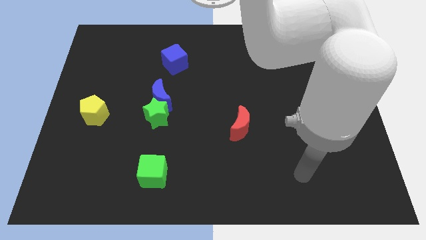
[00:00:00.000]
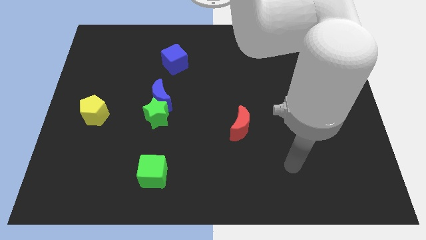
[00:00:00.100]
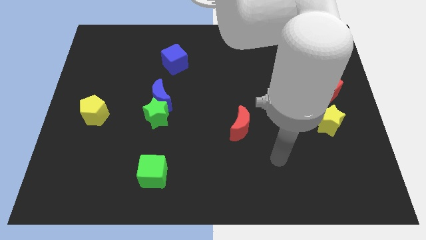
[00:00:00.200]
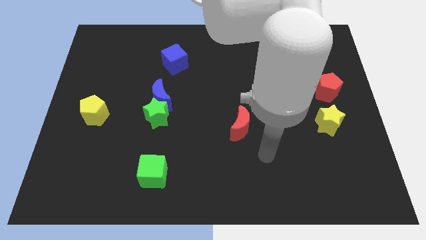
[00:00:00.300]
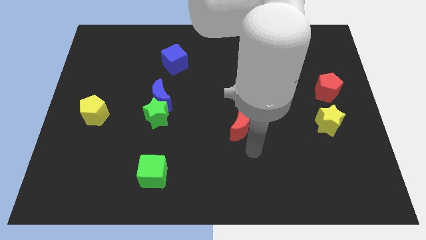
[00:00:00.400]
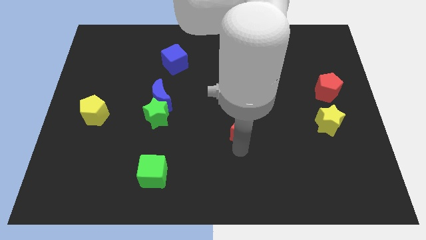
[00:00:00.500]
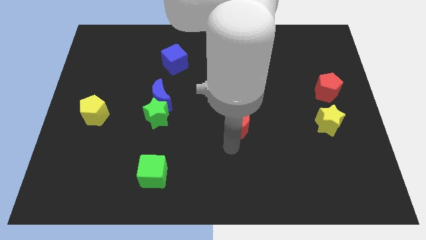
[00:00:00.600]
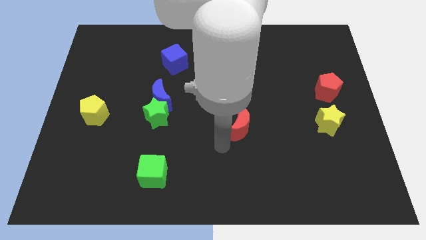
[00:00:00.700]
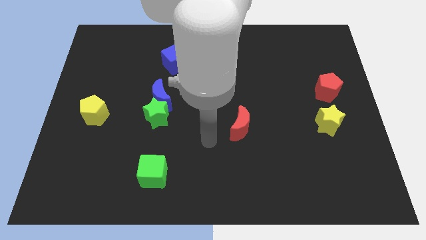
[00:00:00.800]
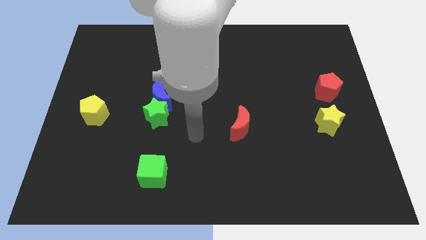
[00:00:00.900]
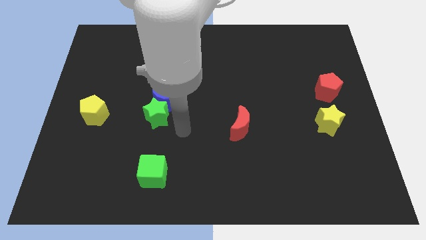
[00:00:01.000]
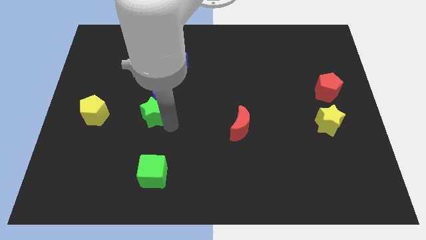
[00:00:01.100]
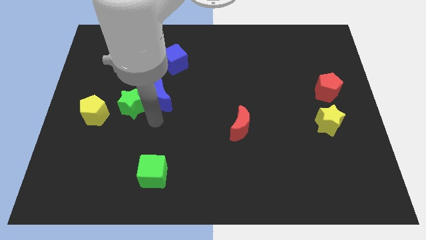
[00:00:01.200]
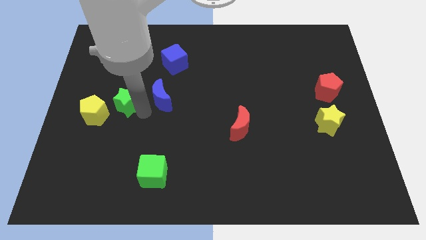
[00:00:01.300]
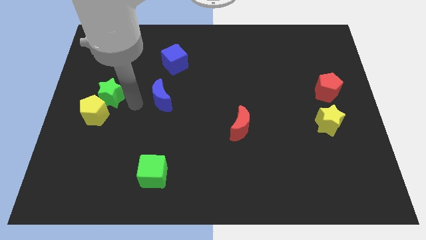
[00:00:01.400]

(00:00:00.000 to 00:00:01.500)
pull the blue moon apart from the green star

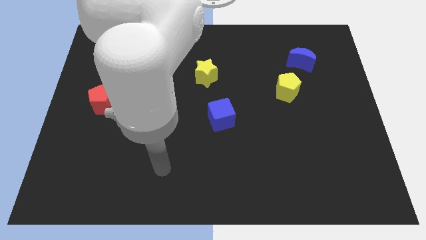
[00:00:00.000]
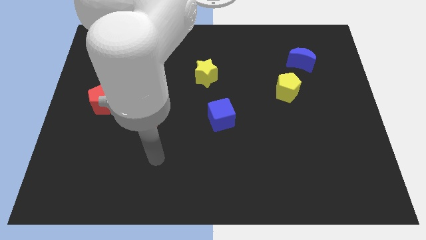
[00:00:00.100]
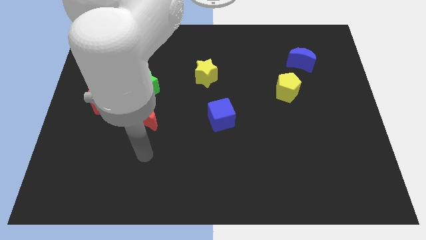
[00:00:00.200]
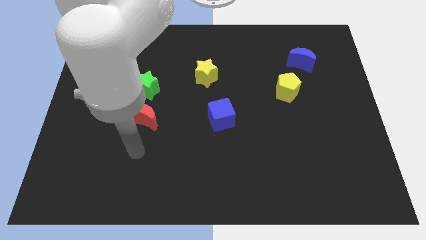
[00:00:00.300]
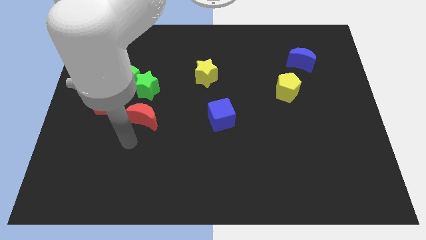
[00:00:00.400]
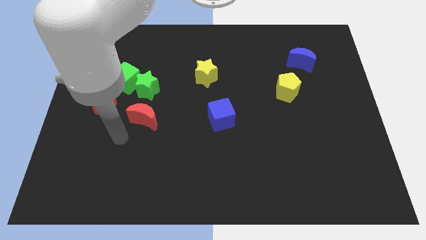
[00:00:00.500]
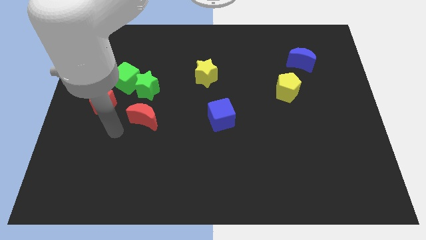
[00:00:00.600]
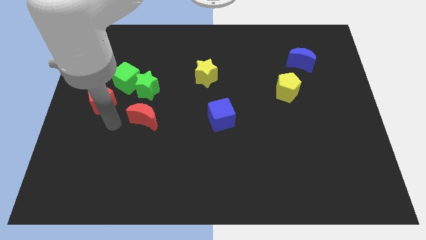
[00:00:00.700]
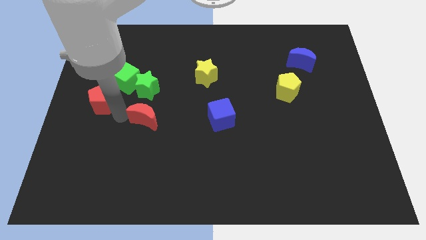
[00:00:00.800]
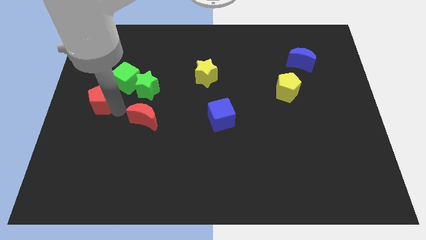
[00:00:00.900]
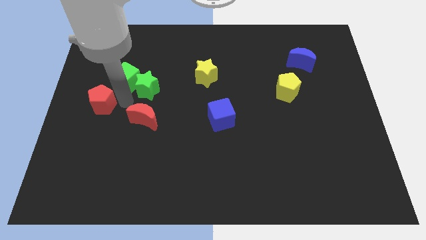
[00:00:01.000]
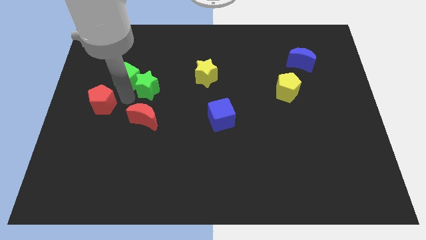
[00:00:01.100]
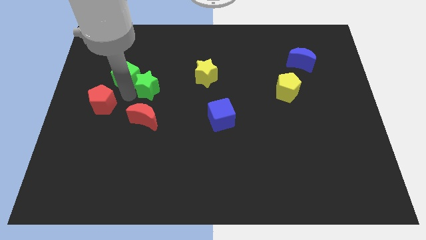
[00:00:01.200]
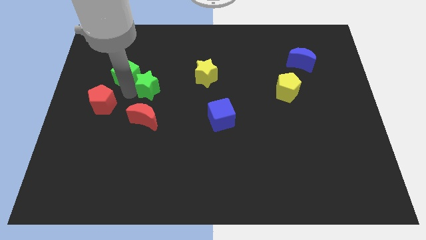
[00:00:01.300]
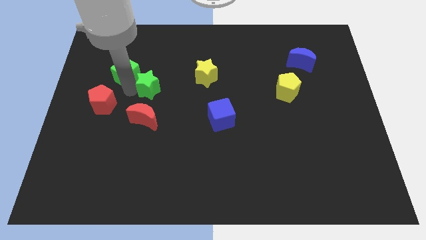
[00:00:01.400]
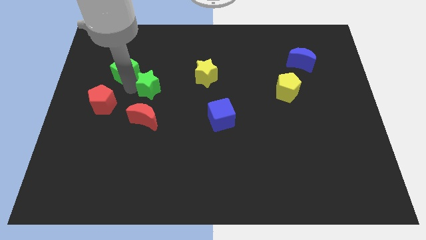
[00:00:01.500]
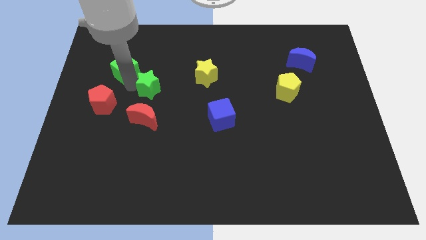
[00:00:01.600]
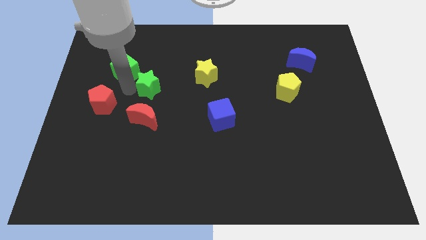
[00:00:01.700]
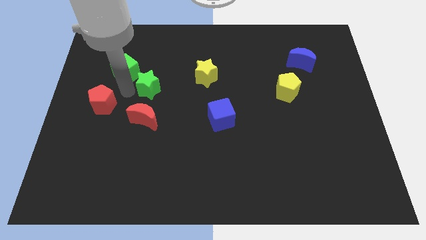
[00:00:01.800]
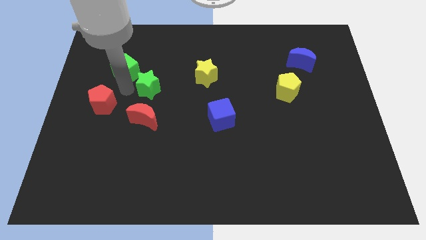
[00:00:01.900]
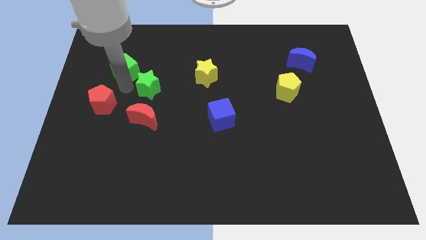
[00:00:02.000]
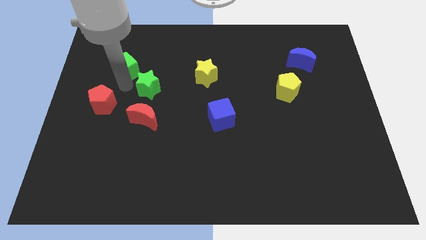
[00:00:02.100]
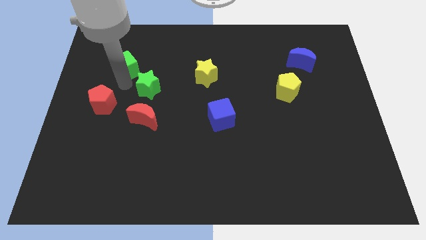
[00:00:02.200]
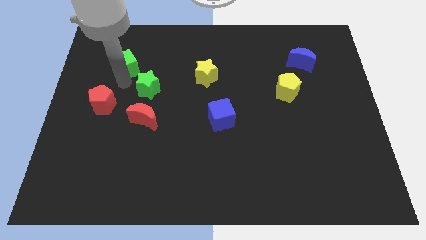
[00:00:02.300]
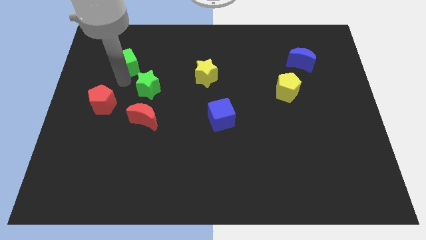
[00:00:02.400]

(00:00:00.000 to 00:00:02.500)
separate the green cube from the green star and red pentagon

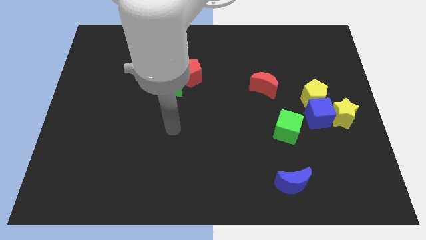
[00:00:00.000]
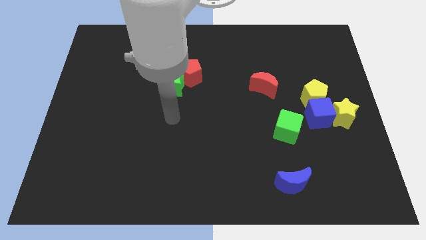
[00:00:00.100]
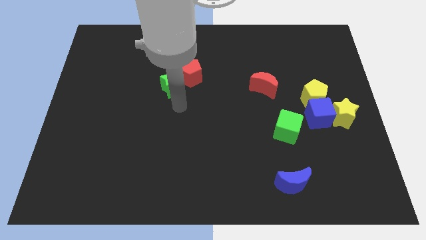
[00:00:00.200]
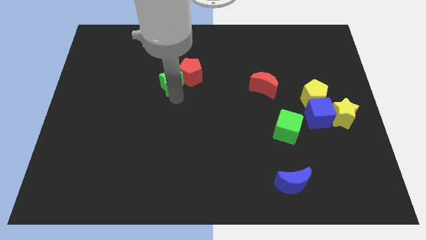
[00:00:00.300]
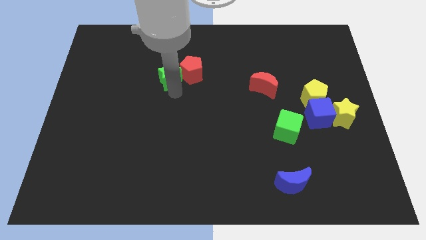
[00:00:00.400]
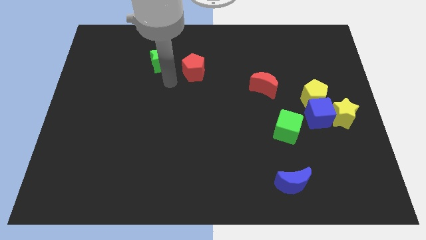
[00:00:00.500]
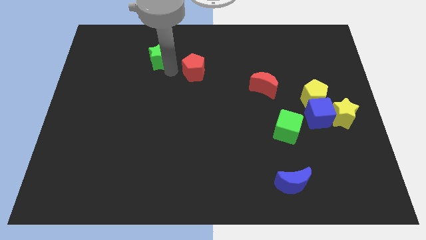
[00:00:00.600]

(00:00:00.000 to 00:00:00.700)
separate the red pentagon from the green star

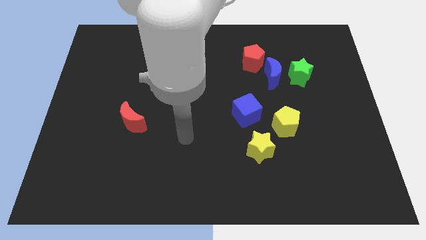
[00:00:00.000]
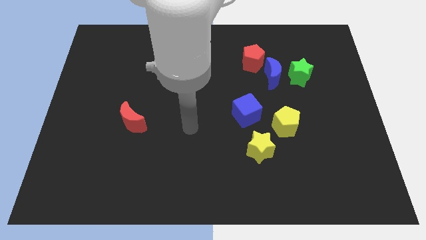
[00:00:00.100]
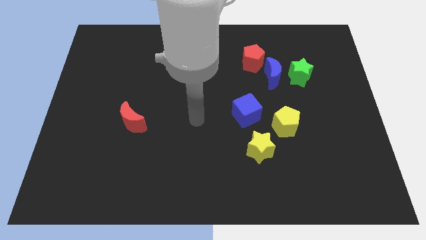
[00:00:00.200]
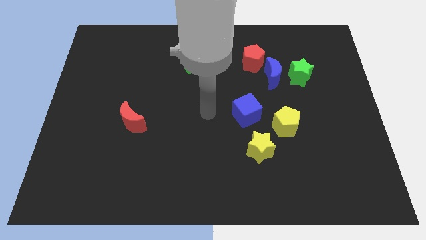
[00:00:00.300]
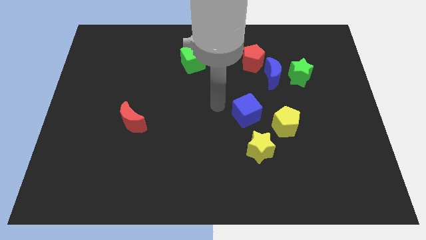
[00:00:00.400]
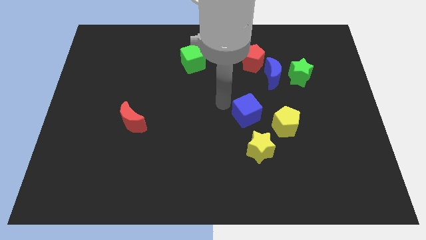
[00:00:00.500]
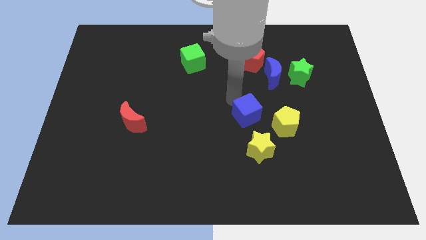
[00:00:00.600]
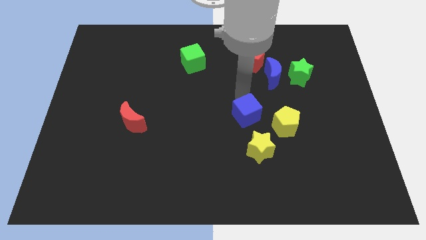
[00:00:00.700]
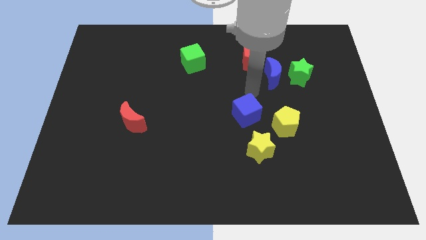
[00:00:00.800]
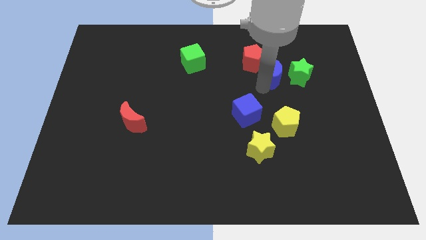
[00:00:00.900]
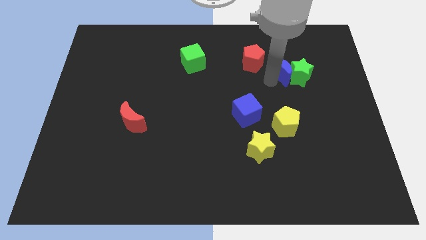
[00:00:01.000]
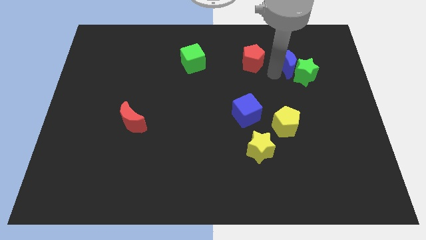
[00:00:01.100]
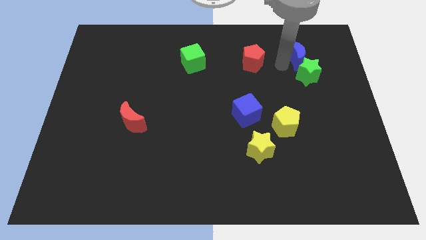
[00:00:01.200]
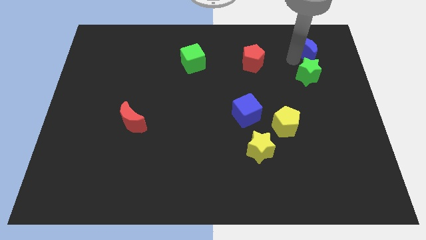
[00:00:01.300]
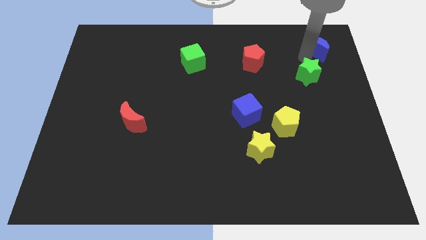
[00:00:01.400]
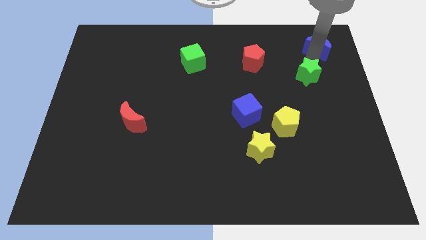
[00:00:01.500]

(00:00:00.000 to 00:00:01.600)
separate the green star from the blue moon

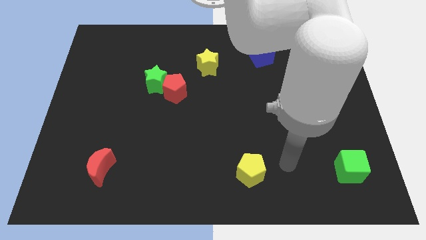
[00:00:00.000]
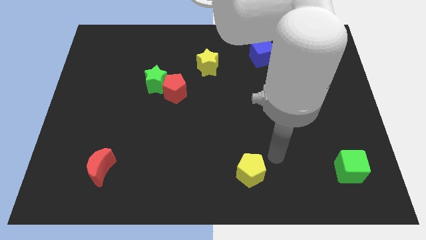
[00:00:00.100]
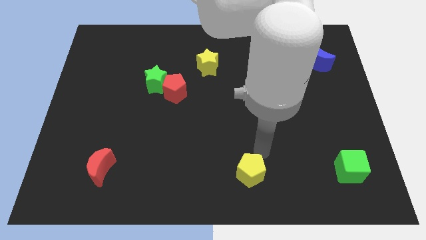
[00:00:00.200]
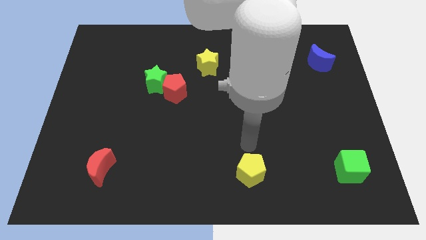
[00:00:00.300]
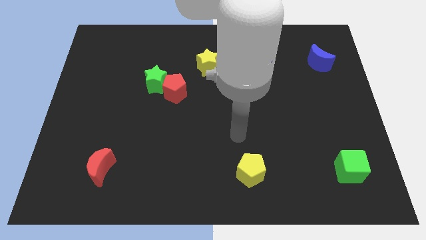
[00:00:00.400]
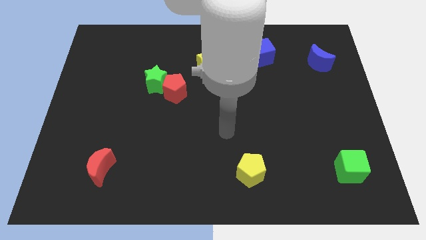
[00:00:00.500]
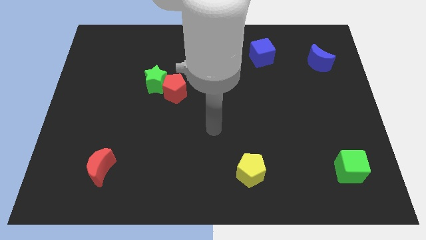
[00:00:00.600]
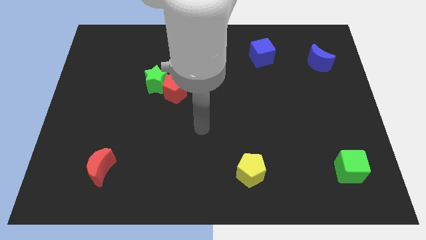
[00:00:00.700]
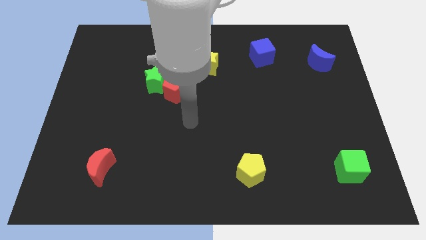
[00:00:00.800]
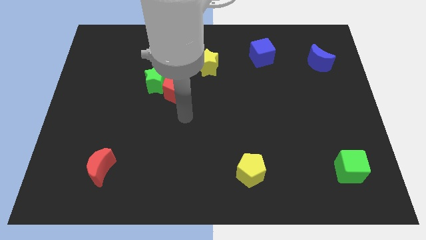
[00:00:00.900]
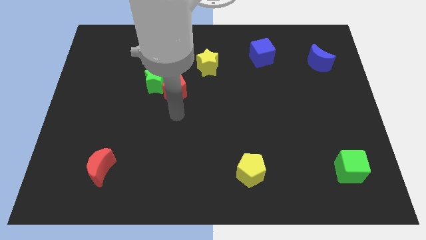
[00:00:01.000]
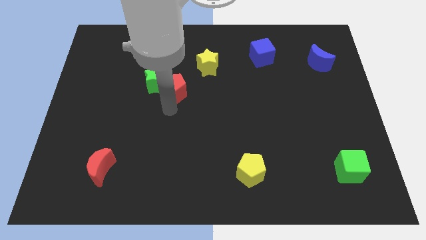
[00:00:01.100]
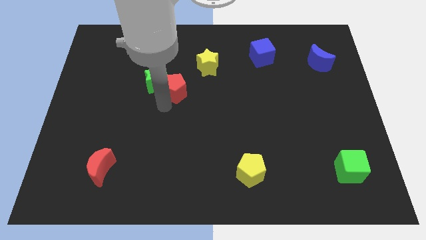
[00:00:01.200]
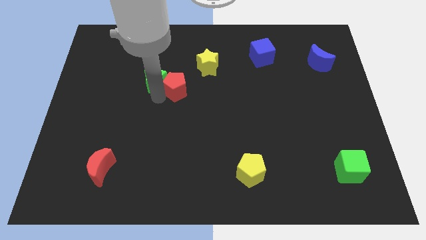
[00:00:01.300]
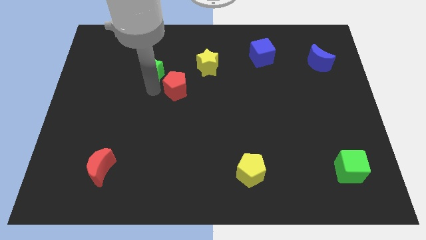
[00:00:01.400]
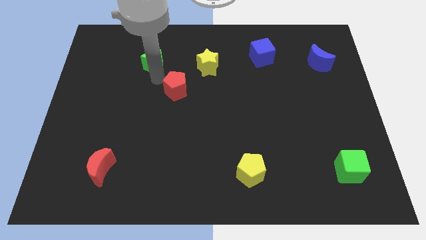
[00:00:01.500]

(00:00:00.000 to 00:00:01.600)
pull the red pentagon apart from the green star

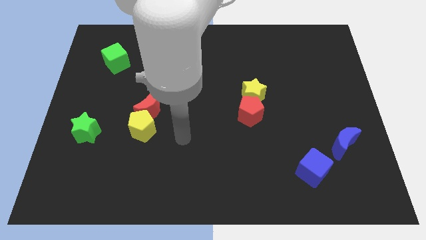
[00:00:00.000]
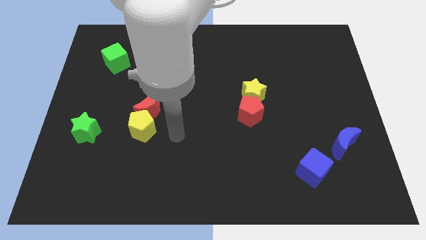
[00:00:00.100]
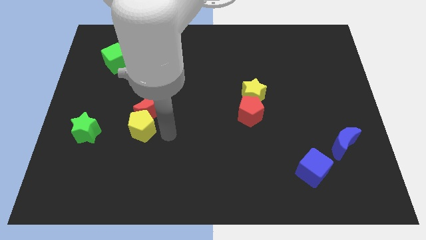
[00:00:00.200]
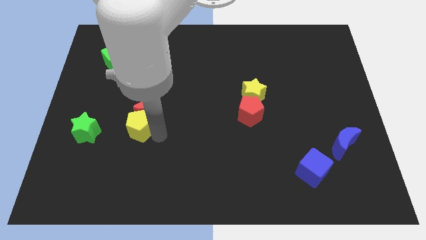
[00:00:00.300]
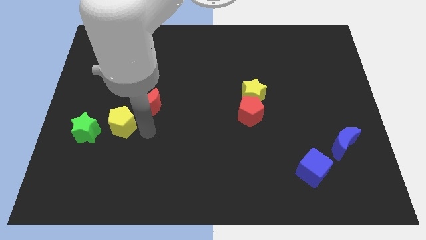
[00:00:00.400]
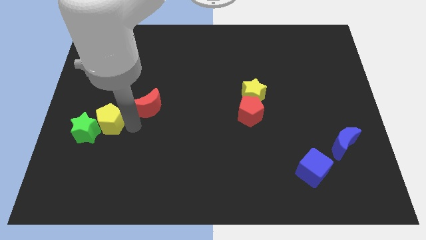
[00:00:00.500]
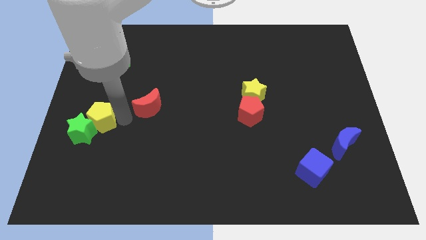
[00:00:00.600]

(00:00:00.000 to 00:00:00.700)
separate the red moon from the yellow pentagon

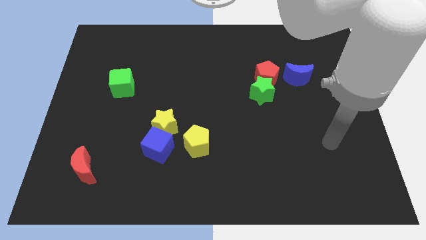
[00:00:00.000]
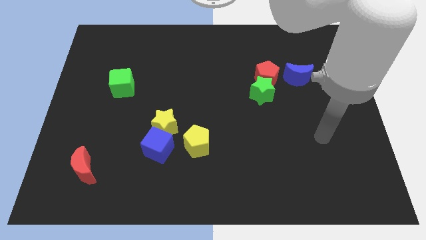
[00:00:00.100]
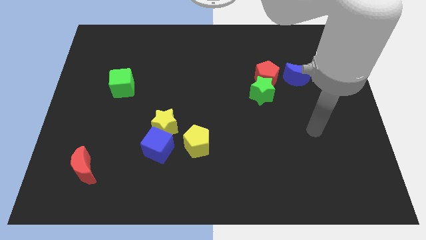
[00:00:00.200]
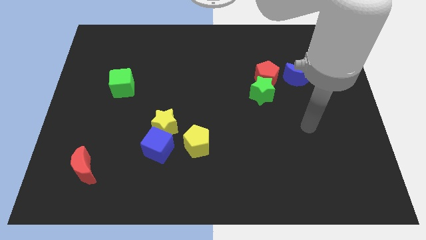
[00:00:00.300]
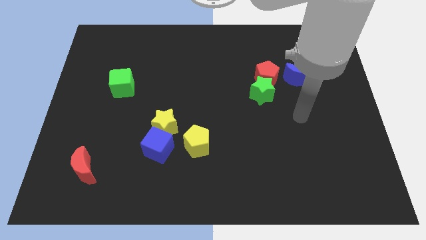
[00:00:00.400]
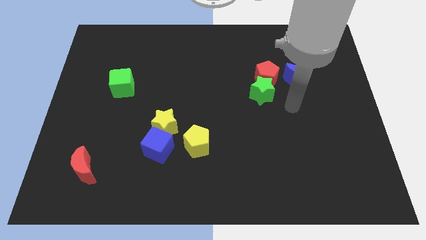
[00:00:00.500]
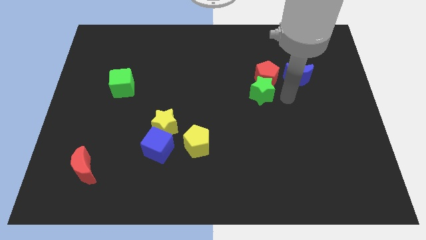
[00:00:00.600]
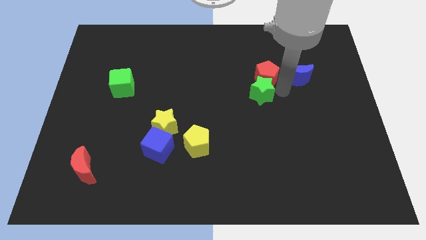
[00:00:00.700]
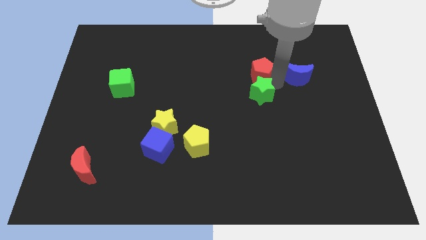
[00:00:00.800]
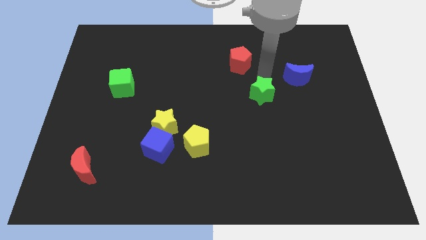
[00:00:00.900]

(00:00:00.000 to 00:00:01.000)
move the green star away from the red pentagon
